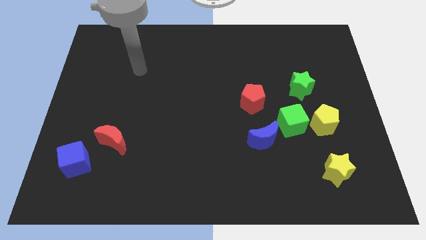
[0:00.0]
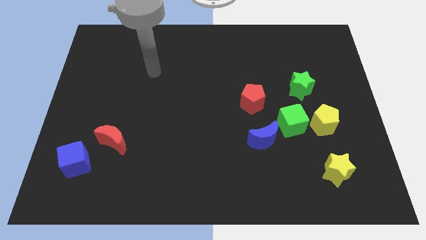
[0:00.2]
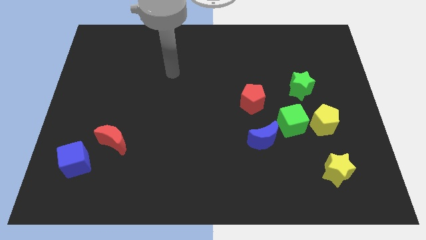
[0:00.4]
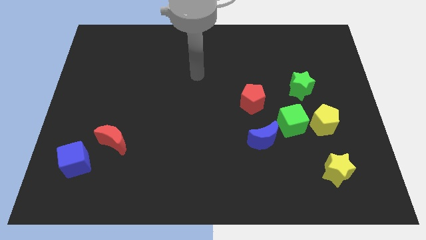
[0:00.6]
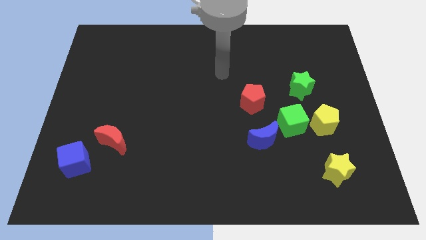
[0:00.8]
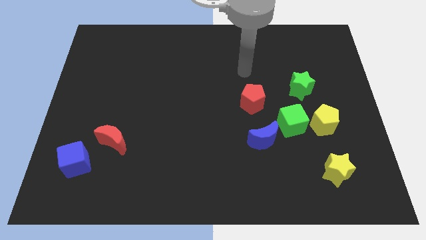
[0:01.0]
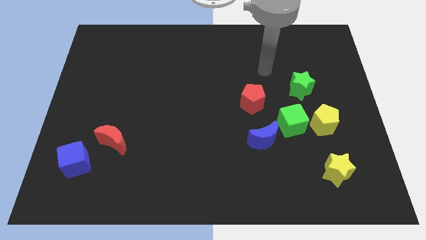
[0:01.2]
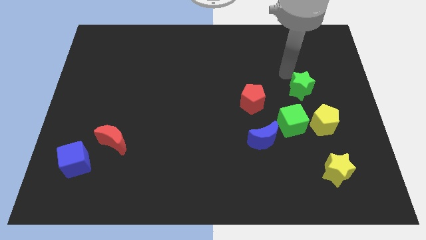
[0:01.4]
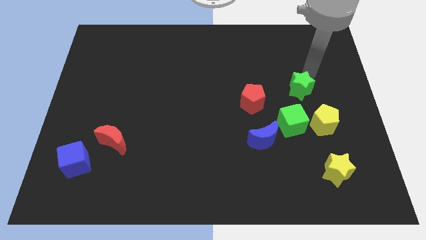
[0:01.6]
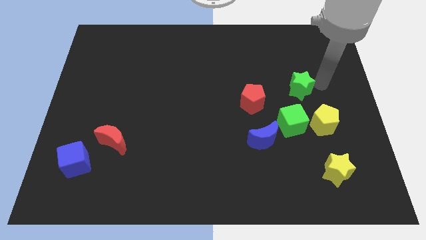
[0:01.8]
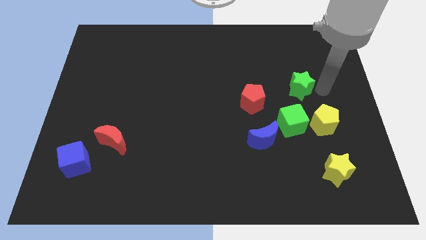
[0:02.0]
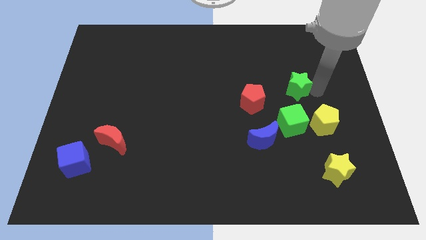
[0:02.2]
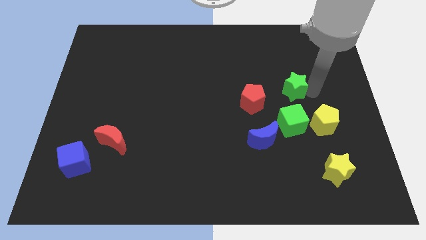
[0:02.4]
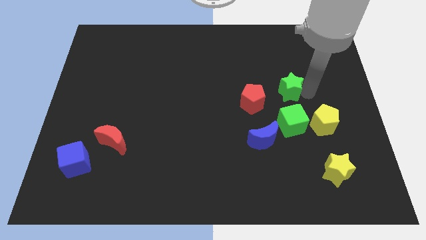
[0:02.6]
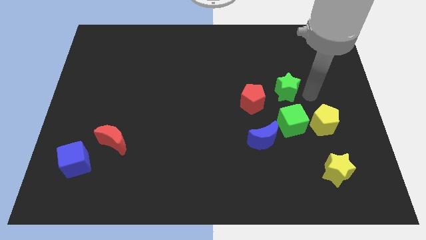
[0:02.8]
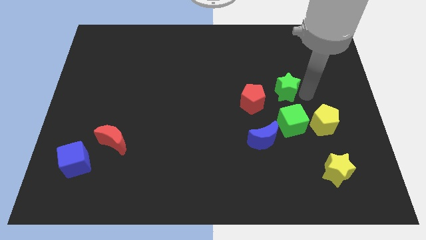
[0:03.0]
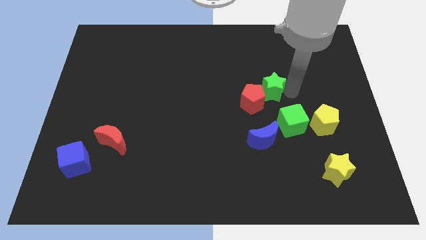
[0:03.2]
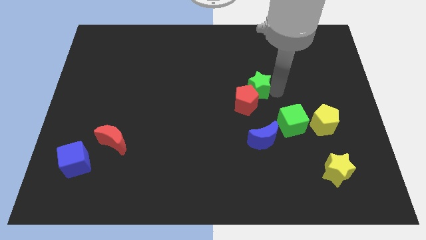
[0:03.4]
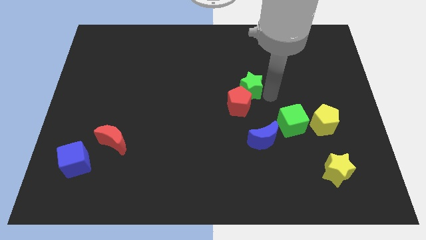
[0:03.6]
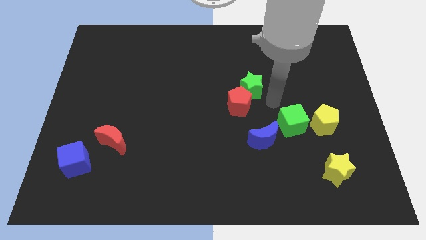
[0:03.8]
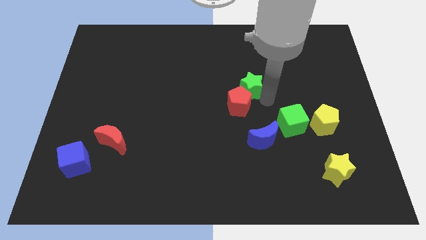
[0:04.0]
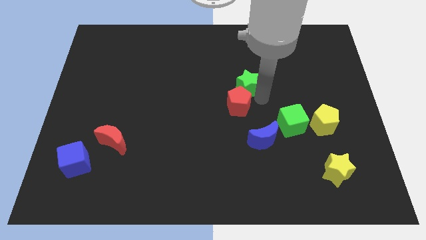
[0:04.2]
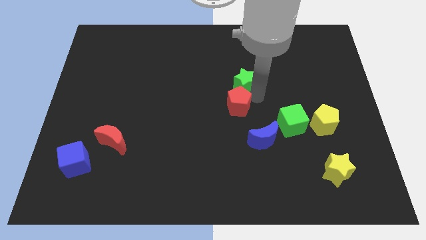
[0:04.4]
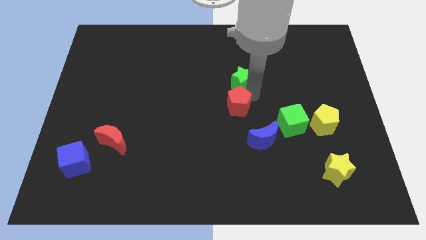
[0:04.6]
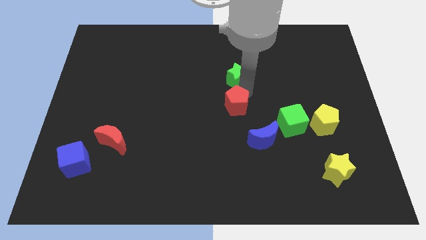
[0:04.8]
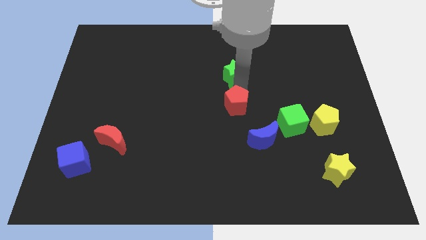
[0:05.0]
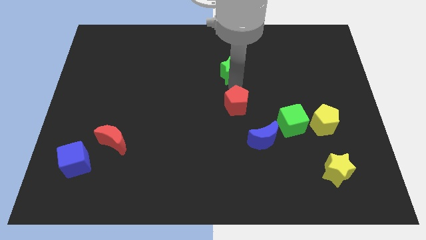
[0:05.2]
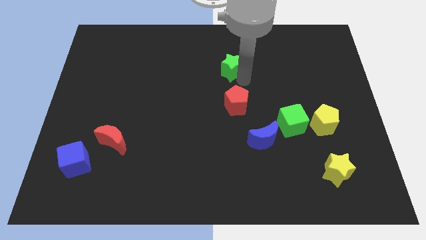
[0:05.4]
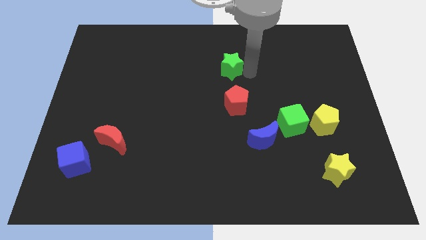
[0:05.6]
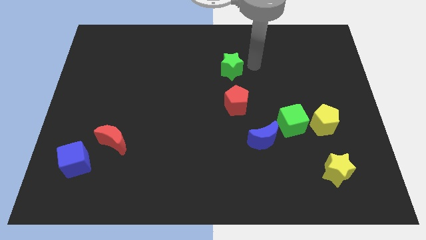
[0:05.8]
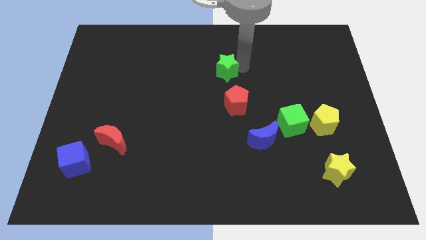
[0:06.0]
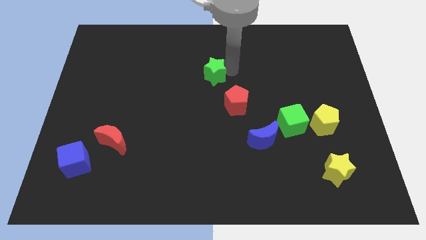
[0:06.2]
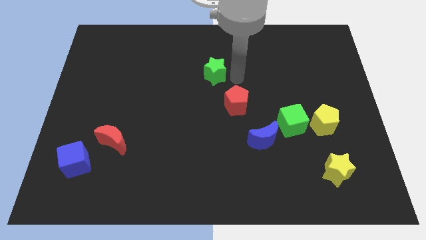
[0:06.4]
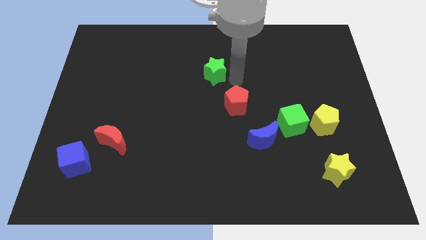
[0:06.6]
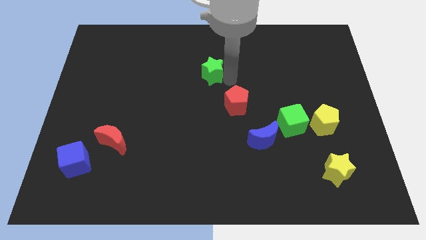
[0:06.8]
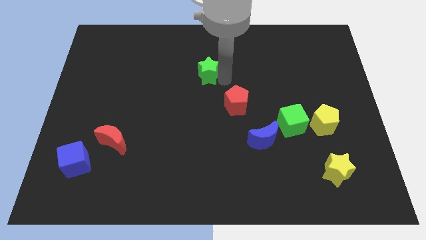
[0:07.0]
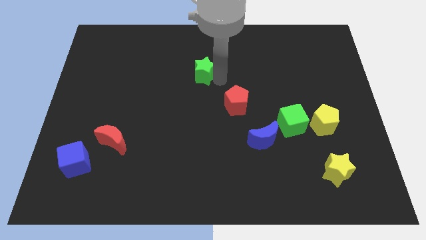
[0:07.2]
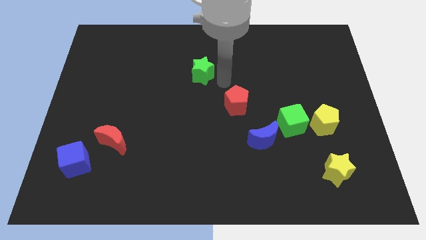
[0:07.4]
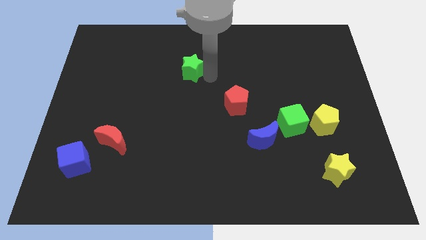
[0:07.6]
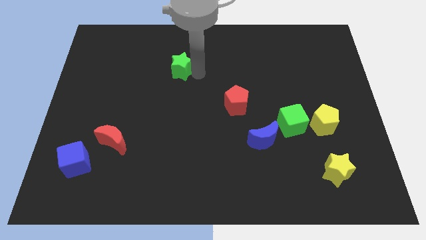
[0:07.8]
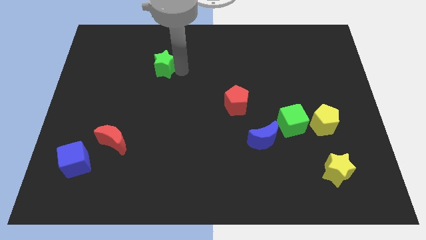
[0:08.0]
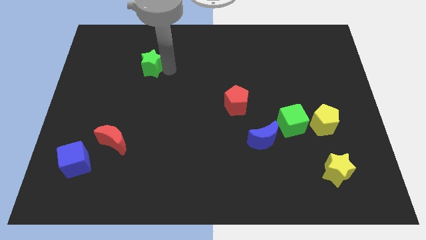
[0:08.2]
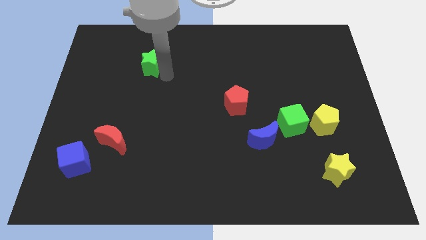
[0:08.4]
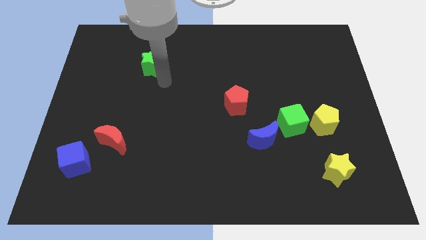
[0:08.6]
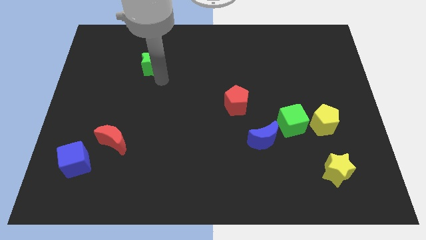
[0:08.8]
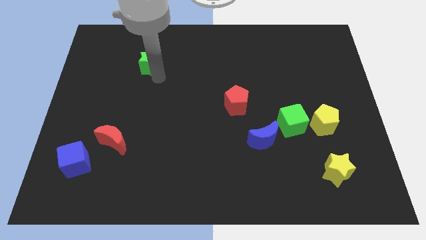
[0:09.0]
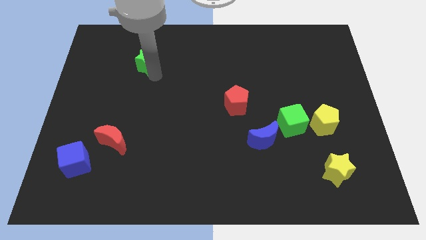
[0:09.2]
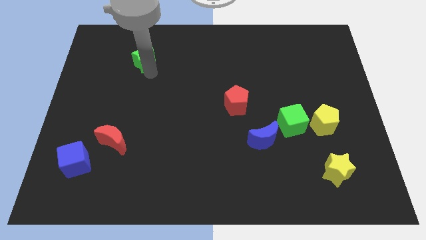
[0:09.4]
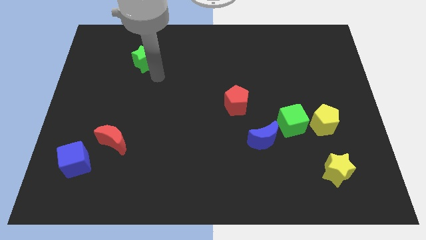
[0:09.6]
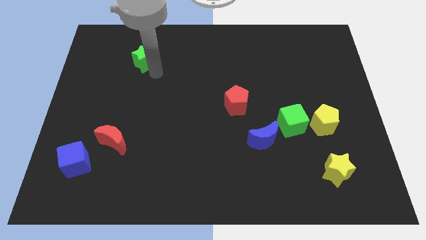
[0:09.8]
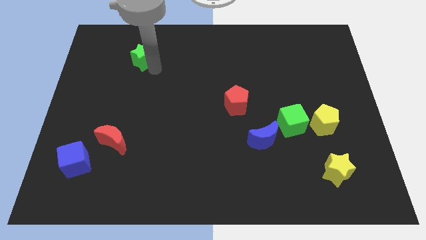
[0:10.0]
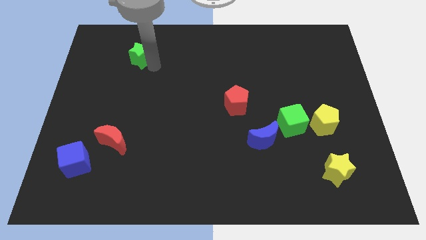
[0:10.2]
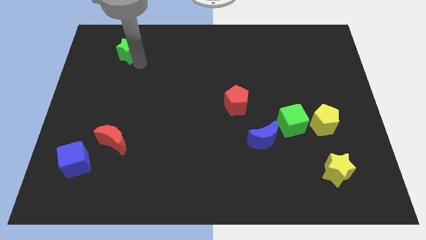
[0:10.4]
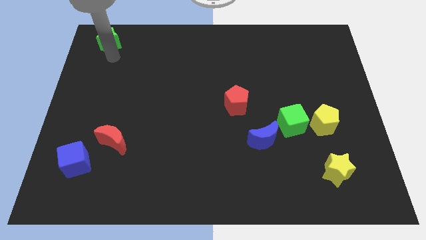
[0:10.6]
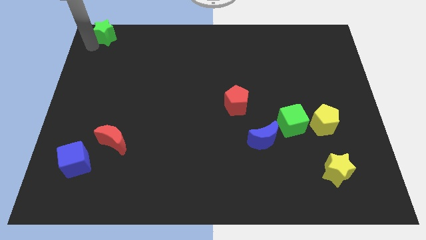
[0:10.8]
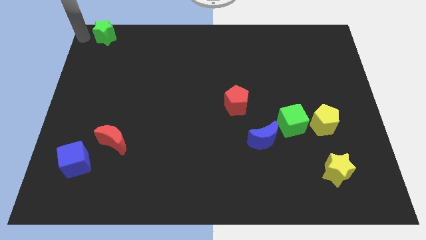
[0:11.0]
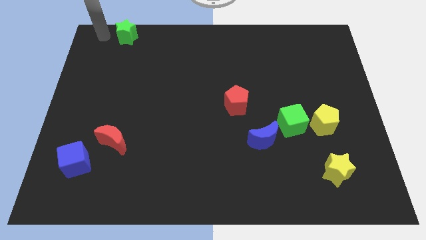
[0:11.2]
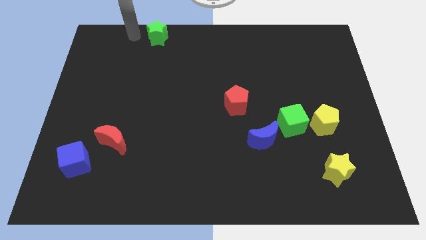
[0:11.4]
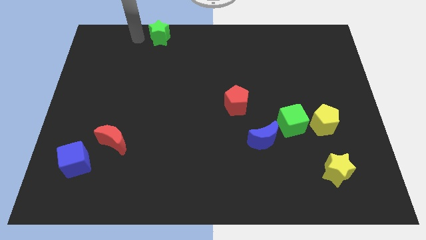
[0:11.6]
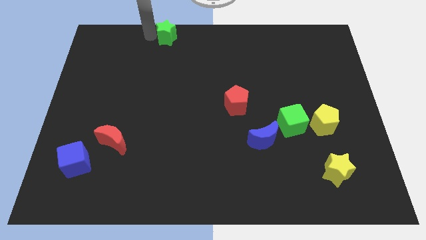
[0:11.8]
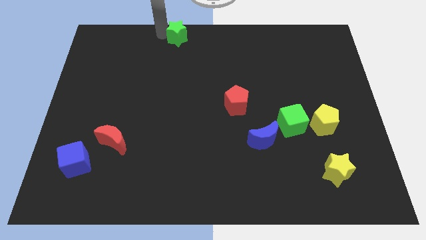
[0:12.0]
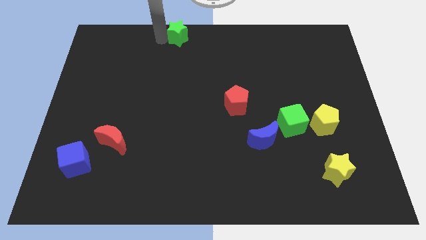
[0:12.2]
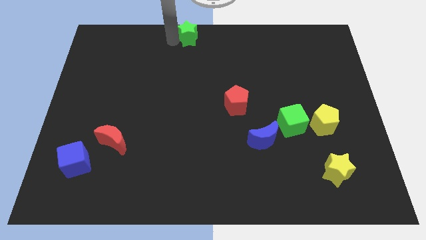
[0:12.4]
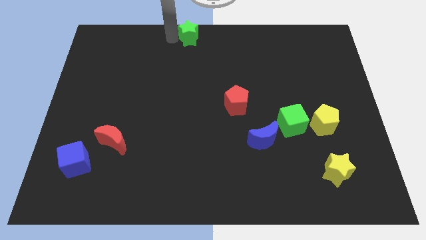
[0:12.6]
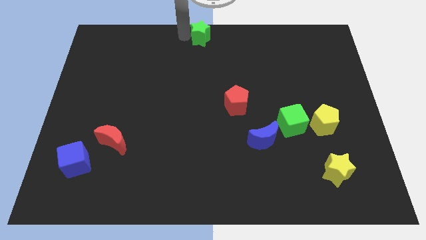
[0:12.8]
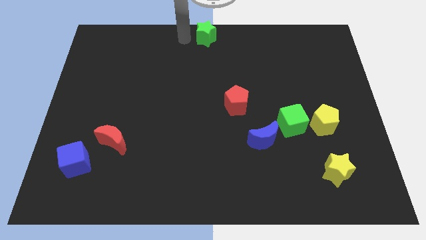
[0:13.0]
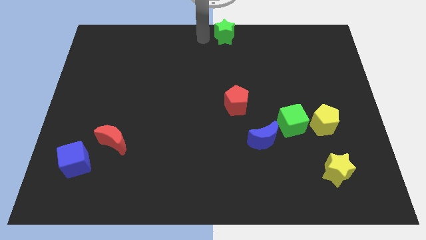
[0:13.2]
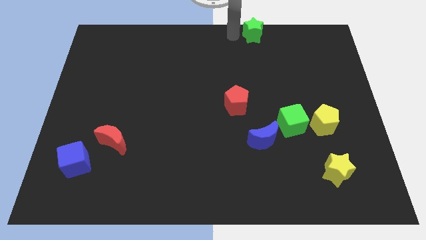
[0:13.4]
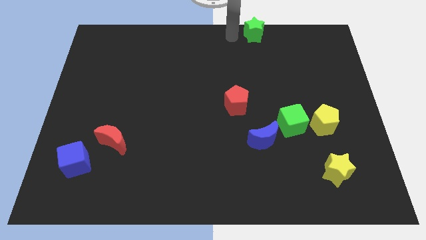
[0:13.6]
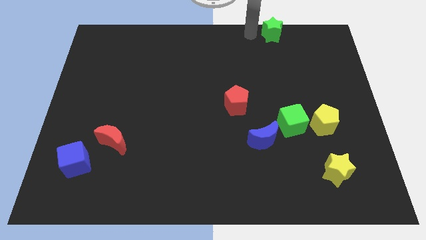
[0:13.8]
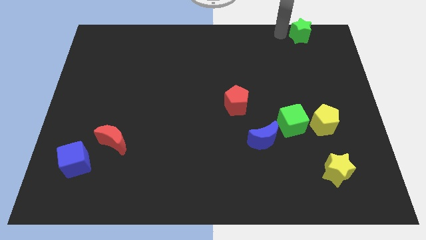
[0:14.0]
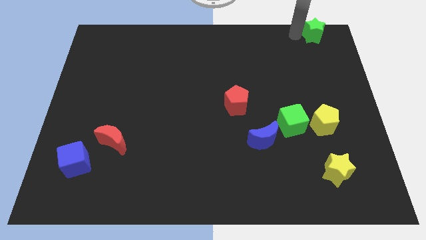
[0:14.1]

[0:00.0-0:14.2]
slide the green star to the top right of the board
